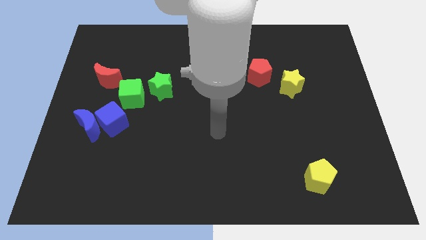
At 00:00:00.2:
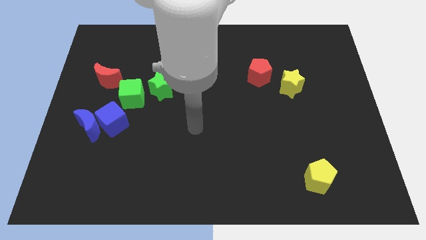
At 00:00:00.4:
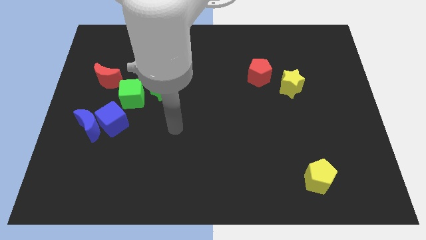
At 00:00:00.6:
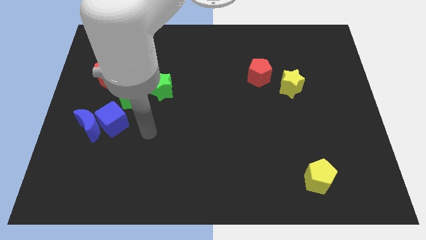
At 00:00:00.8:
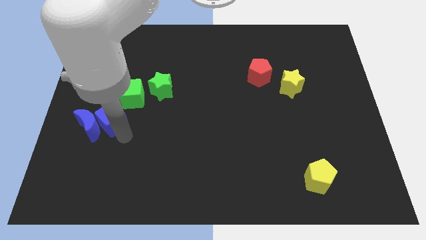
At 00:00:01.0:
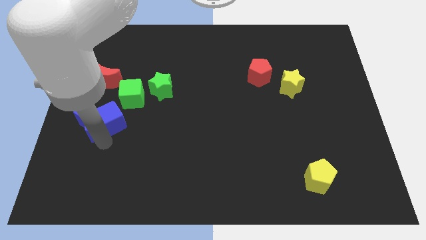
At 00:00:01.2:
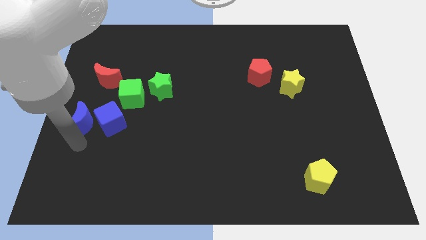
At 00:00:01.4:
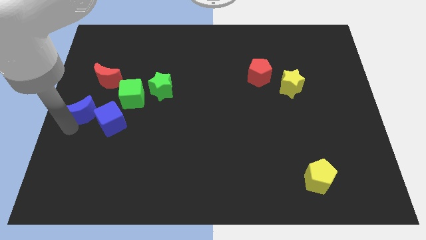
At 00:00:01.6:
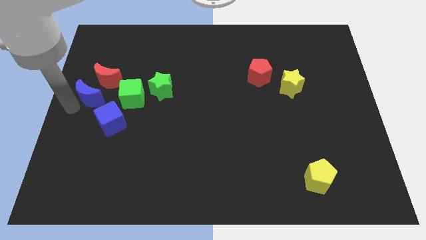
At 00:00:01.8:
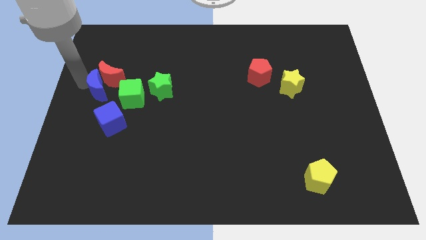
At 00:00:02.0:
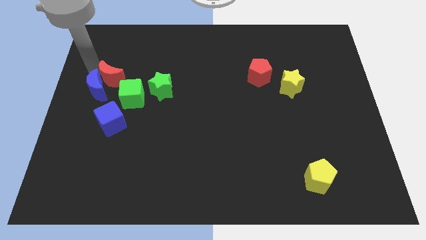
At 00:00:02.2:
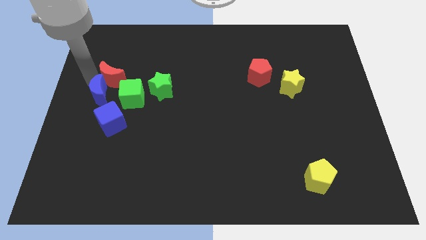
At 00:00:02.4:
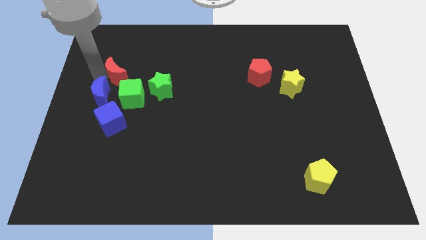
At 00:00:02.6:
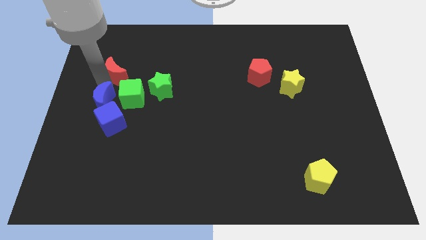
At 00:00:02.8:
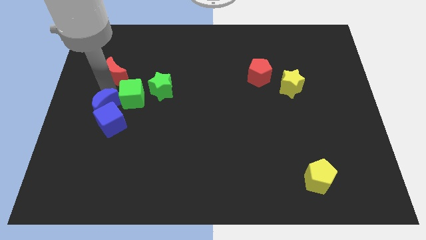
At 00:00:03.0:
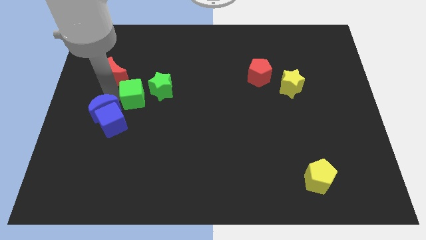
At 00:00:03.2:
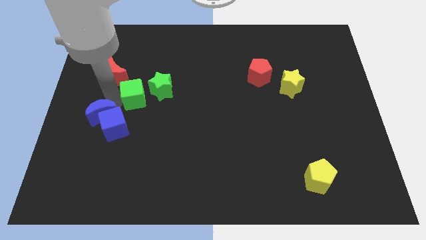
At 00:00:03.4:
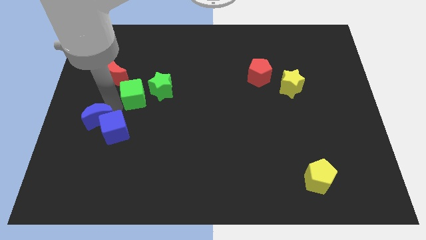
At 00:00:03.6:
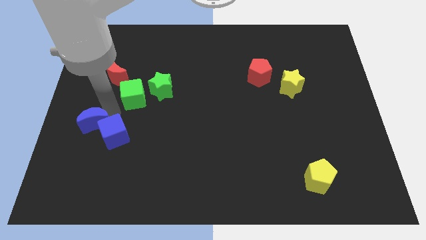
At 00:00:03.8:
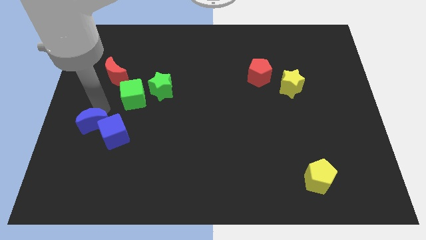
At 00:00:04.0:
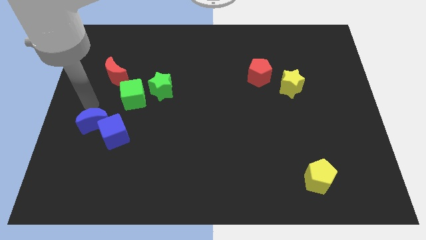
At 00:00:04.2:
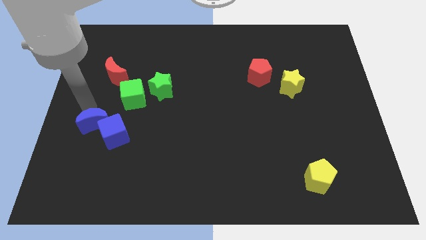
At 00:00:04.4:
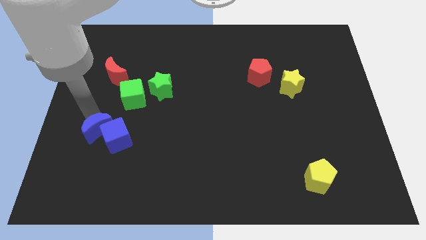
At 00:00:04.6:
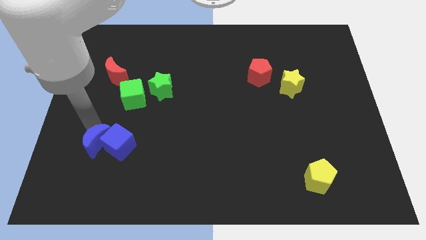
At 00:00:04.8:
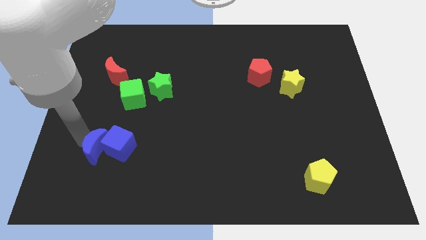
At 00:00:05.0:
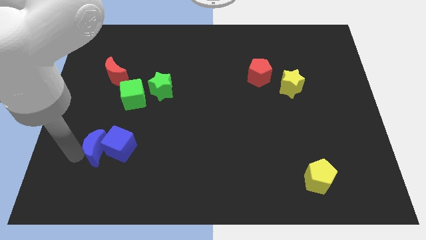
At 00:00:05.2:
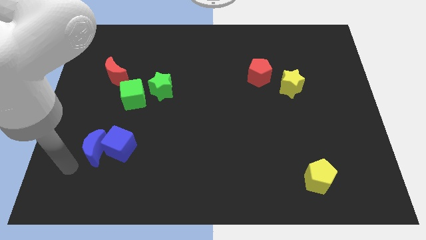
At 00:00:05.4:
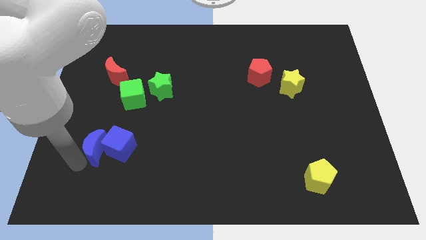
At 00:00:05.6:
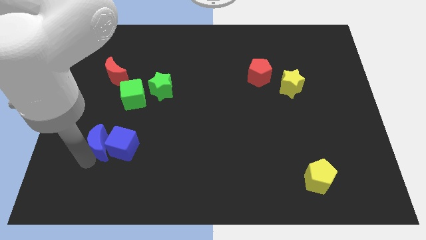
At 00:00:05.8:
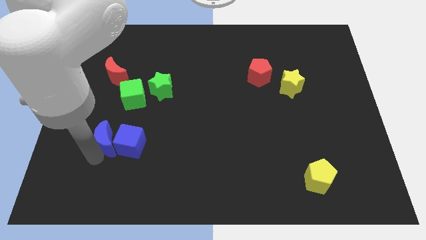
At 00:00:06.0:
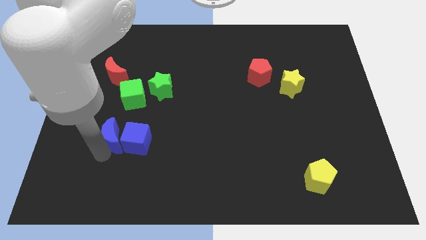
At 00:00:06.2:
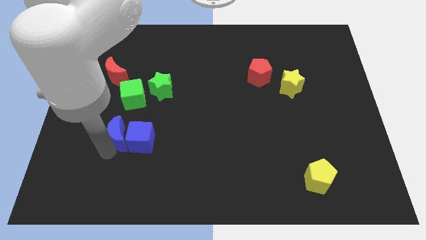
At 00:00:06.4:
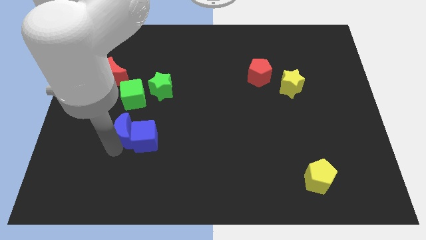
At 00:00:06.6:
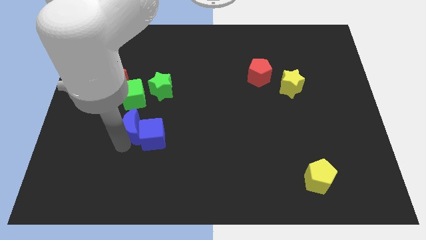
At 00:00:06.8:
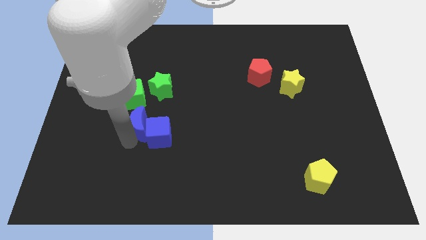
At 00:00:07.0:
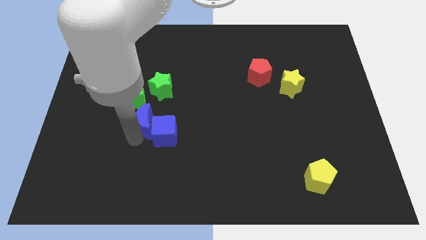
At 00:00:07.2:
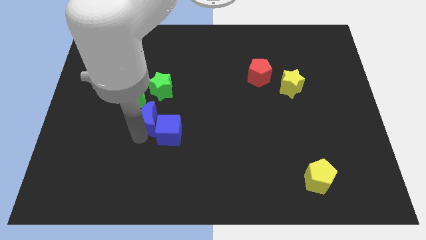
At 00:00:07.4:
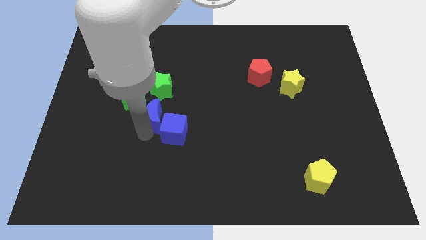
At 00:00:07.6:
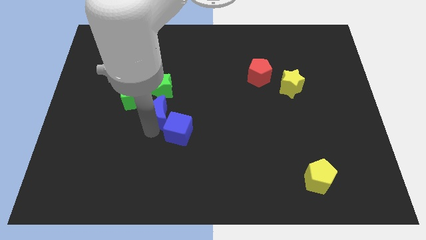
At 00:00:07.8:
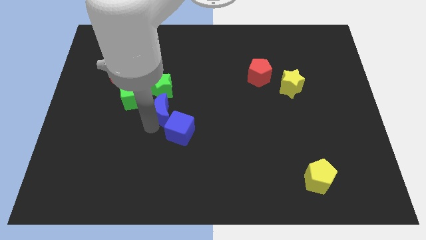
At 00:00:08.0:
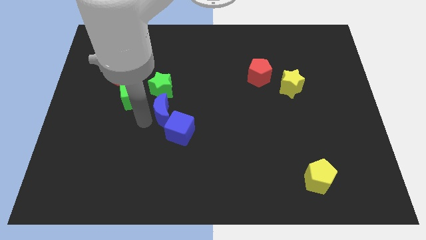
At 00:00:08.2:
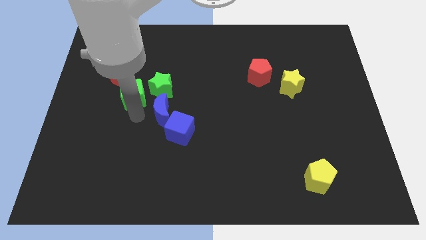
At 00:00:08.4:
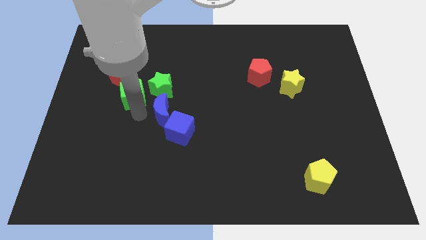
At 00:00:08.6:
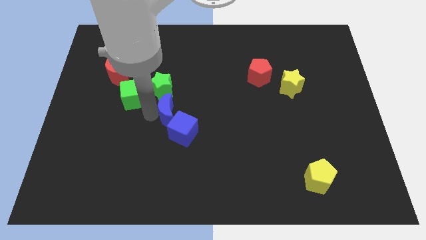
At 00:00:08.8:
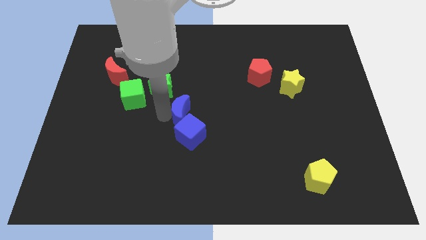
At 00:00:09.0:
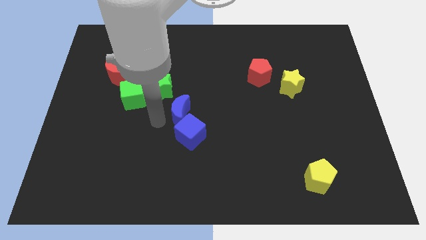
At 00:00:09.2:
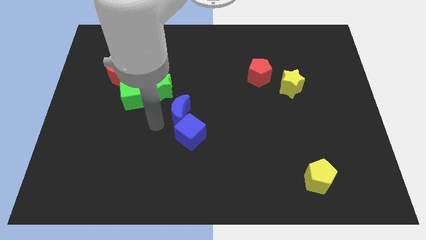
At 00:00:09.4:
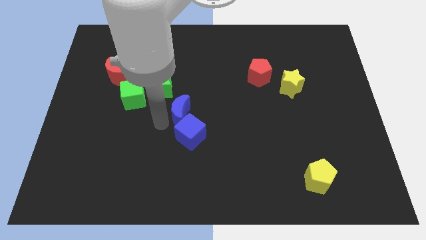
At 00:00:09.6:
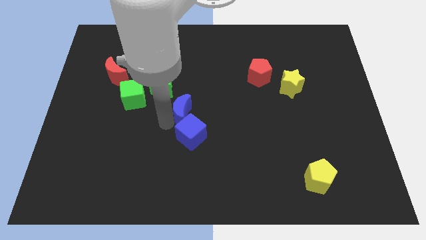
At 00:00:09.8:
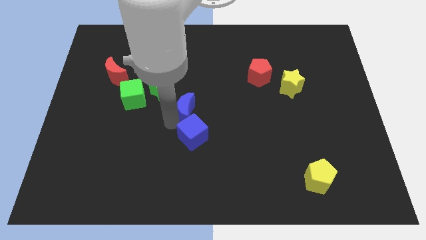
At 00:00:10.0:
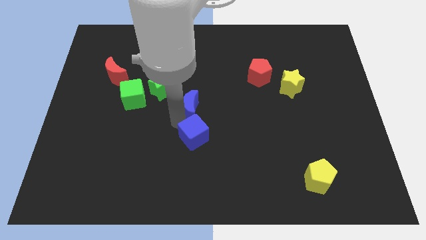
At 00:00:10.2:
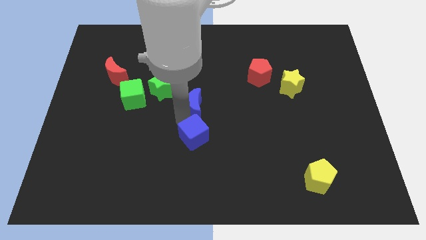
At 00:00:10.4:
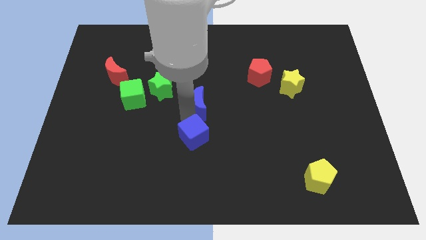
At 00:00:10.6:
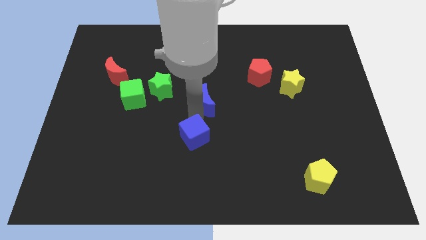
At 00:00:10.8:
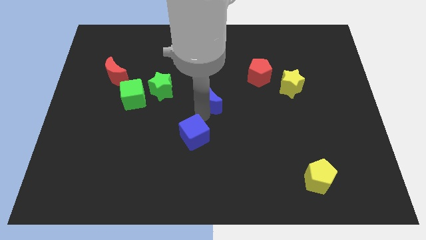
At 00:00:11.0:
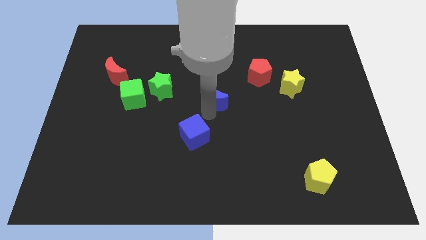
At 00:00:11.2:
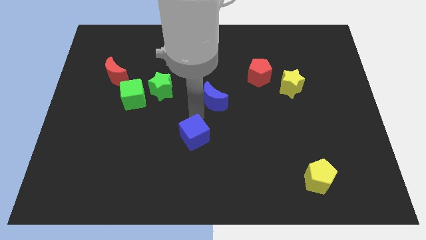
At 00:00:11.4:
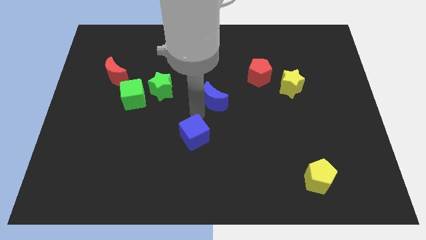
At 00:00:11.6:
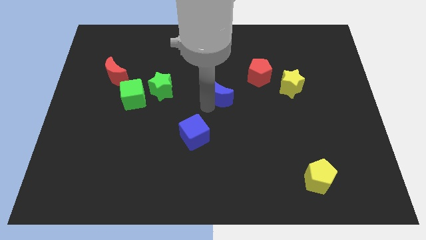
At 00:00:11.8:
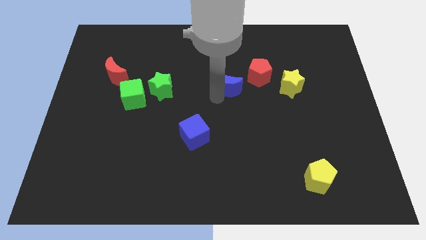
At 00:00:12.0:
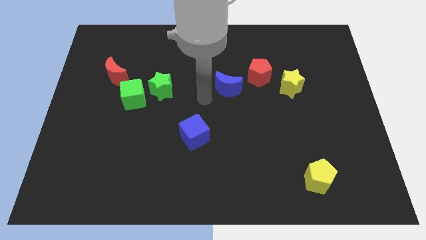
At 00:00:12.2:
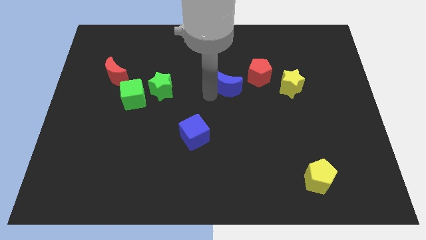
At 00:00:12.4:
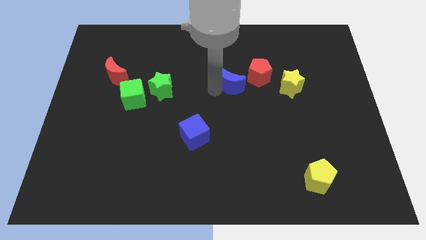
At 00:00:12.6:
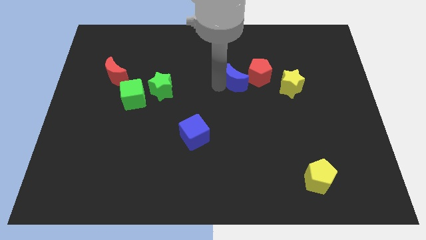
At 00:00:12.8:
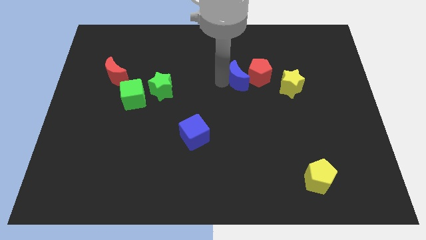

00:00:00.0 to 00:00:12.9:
move the blue moon close to the red pentagon

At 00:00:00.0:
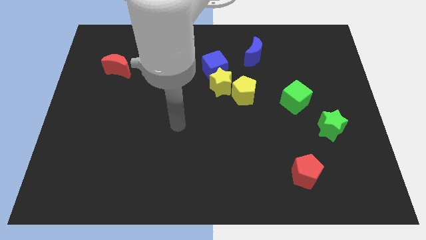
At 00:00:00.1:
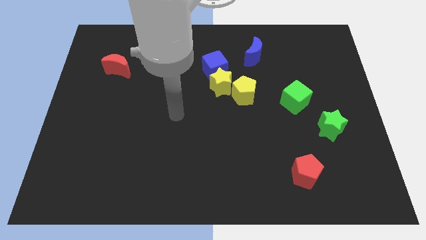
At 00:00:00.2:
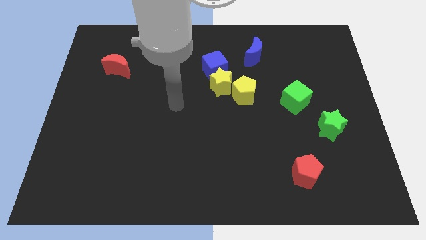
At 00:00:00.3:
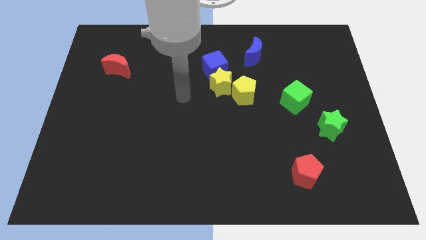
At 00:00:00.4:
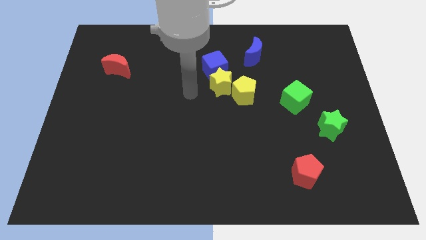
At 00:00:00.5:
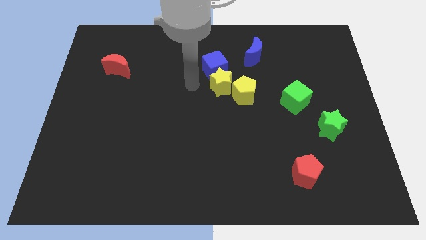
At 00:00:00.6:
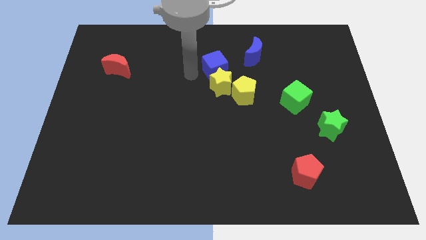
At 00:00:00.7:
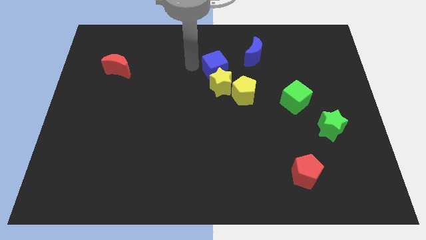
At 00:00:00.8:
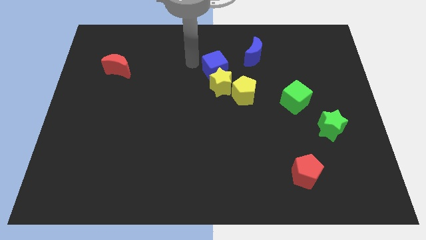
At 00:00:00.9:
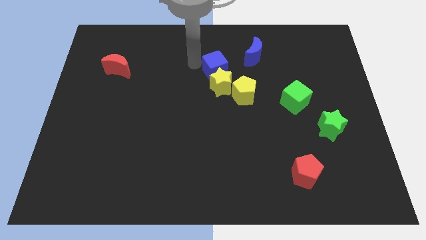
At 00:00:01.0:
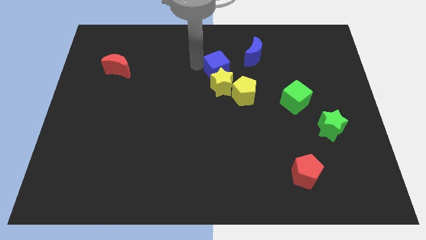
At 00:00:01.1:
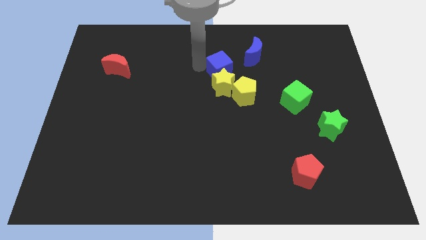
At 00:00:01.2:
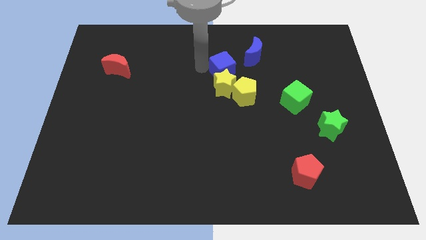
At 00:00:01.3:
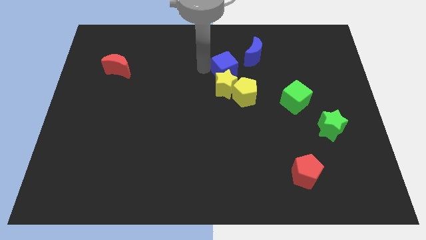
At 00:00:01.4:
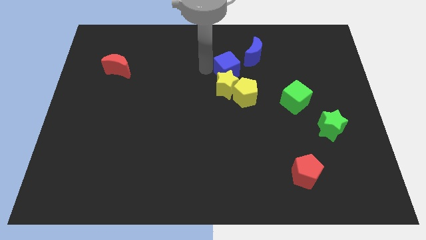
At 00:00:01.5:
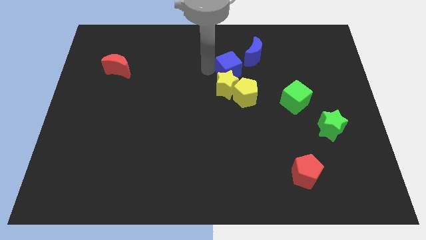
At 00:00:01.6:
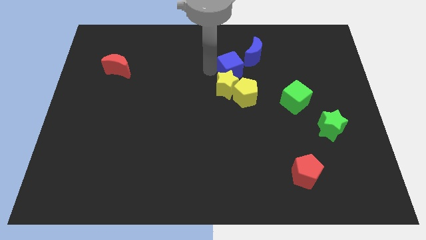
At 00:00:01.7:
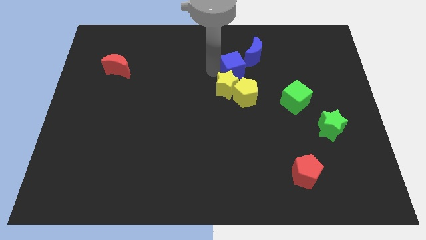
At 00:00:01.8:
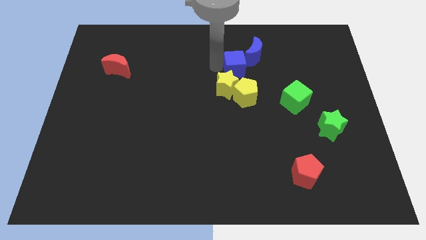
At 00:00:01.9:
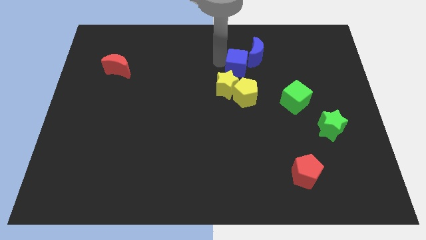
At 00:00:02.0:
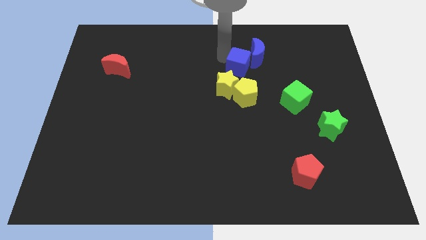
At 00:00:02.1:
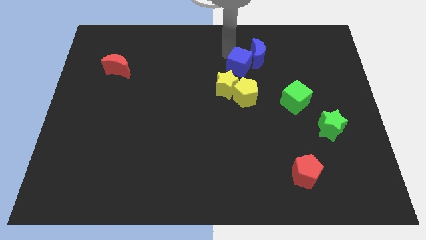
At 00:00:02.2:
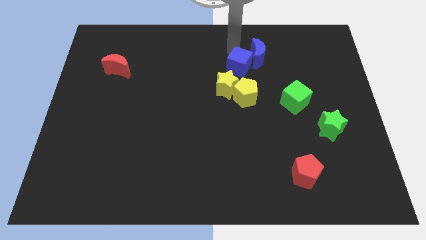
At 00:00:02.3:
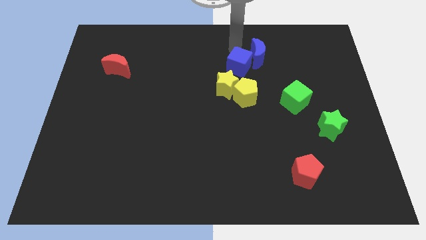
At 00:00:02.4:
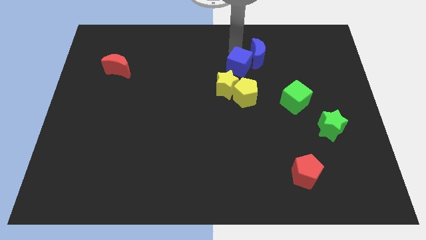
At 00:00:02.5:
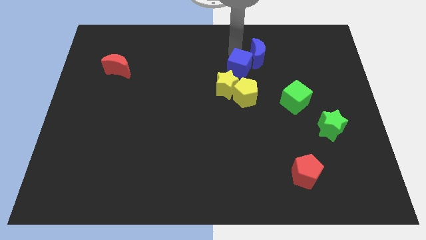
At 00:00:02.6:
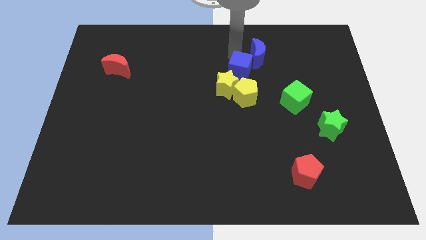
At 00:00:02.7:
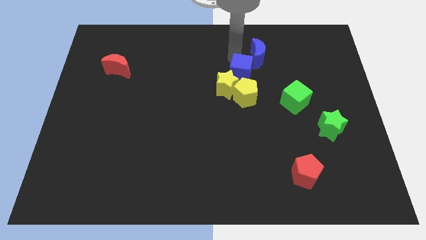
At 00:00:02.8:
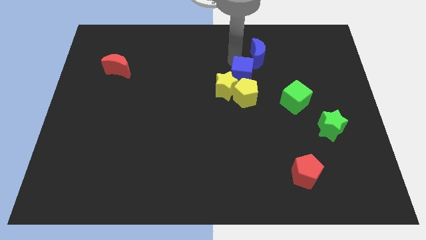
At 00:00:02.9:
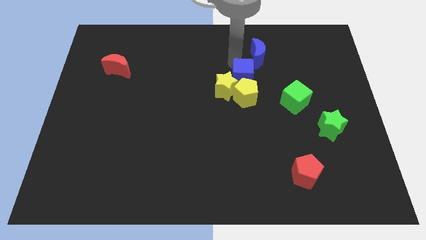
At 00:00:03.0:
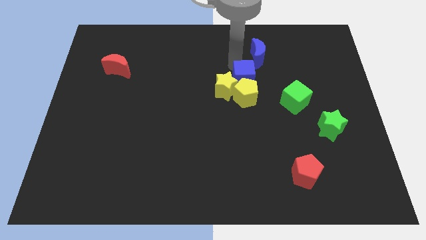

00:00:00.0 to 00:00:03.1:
put the blue cube next to the yellow pentagon
